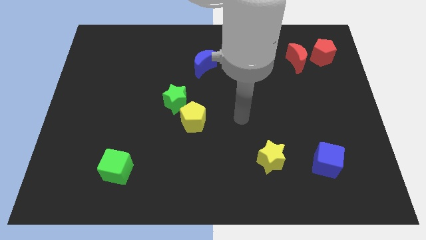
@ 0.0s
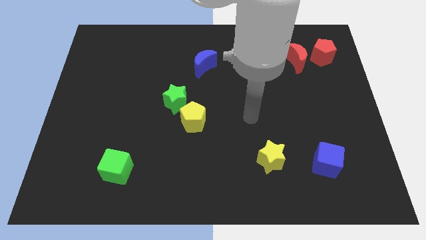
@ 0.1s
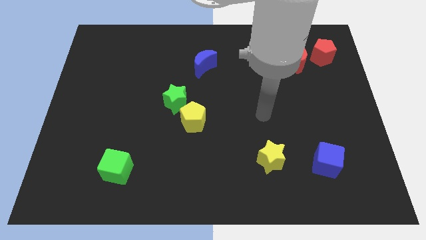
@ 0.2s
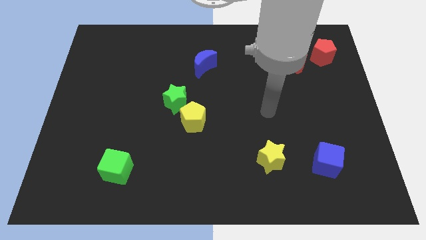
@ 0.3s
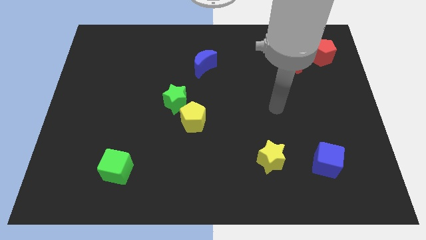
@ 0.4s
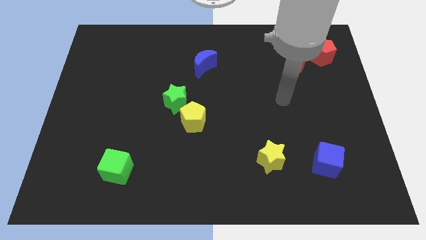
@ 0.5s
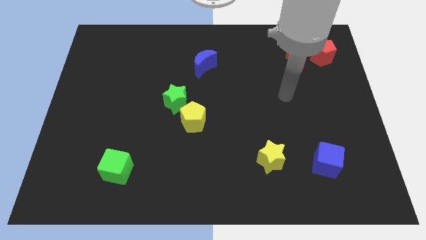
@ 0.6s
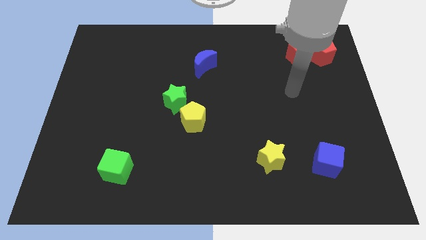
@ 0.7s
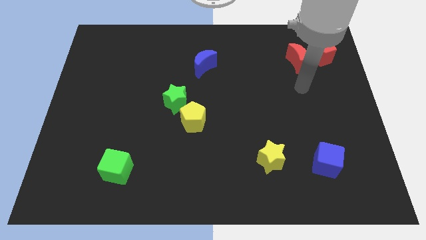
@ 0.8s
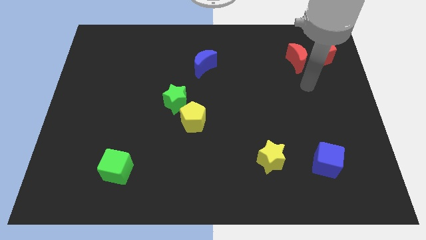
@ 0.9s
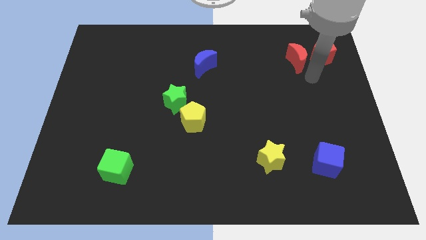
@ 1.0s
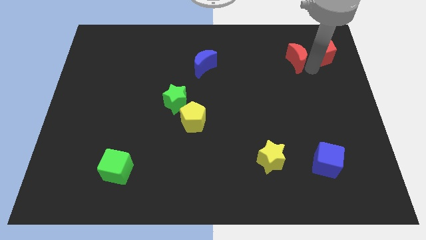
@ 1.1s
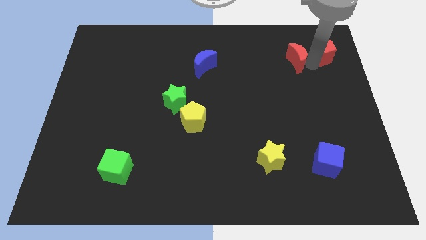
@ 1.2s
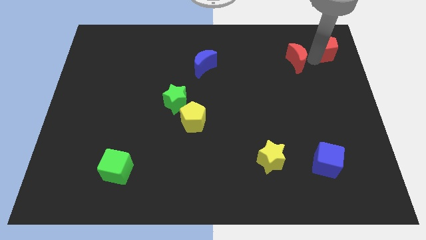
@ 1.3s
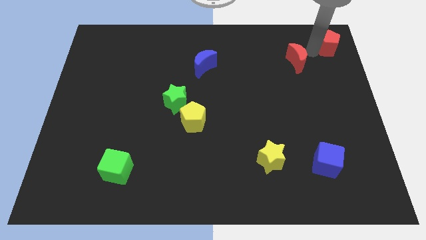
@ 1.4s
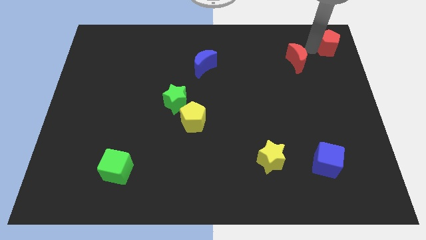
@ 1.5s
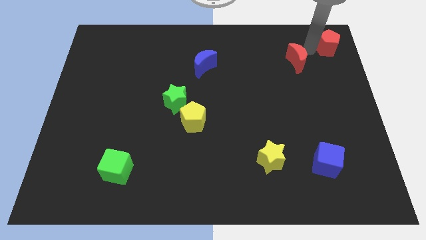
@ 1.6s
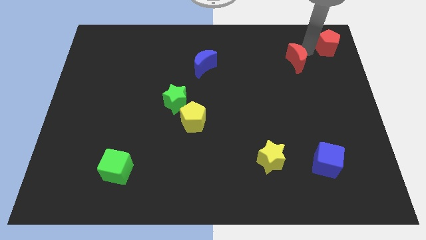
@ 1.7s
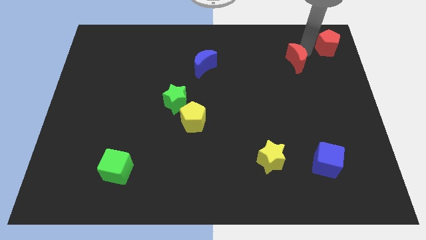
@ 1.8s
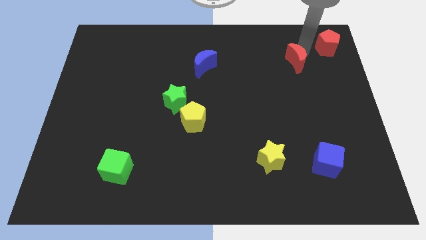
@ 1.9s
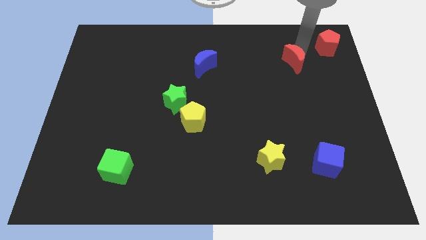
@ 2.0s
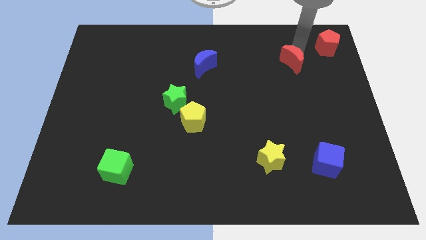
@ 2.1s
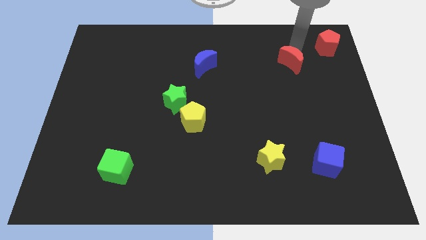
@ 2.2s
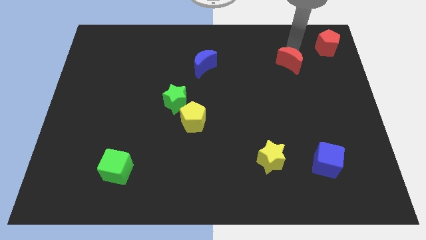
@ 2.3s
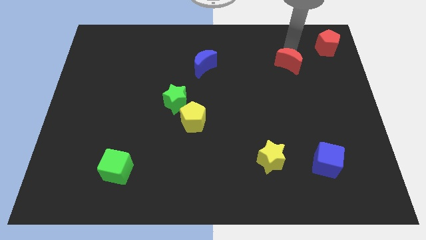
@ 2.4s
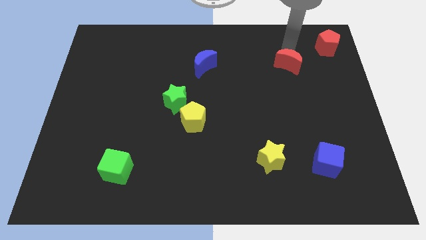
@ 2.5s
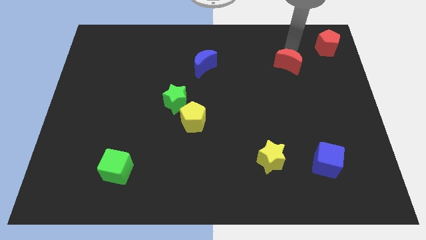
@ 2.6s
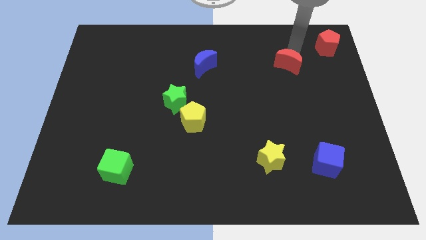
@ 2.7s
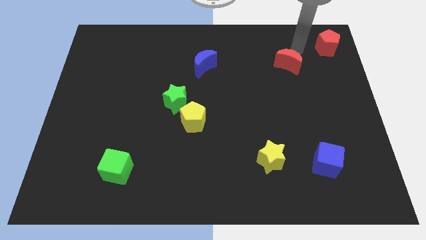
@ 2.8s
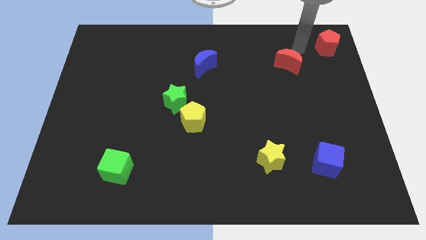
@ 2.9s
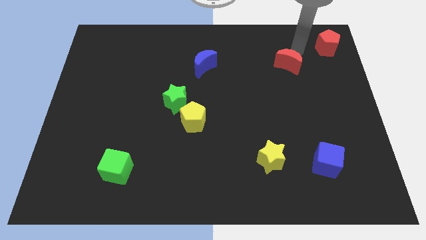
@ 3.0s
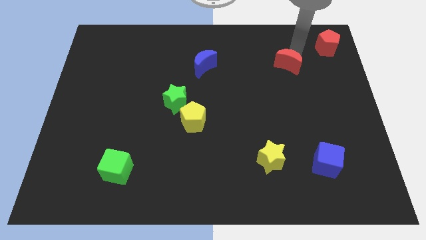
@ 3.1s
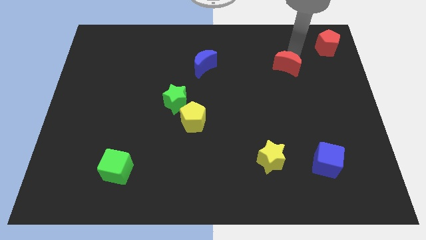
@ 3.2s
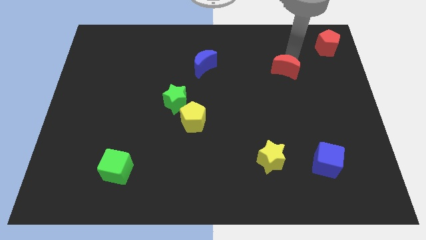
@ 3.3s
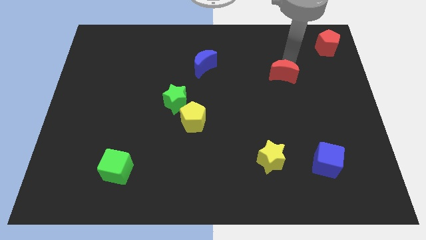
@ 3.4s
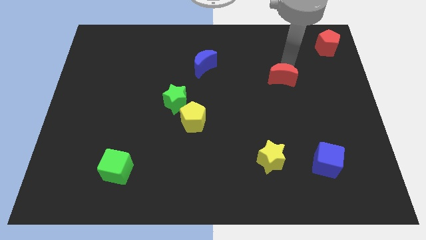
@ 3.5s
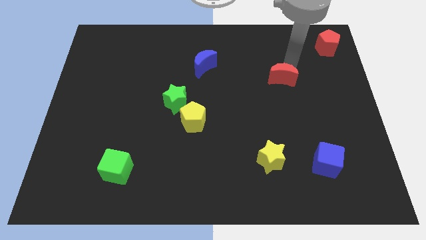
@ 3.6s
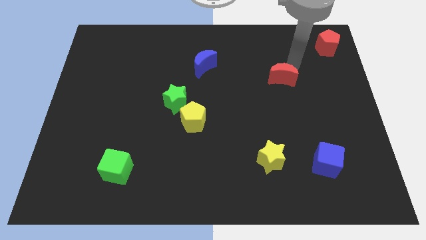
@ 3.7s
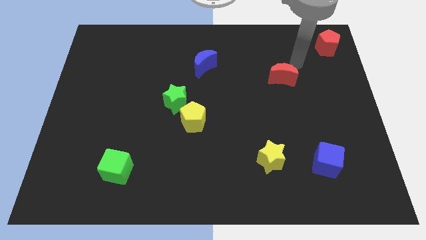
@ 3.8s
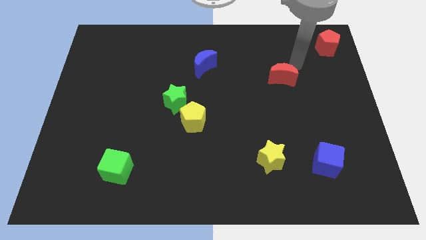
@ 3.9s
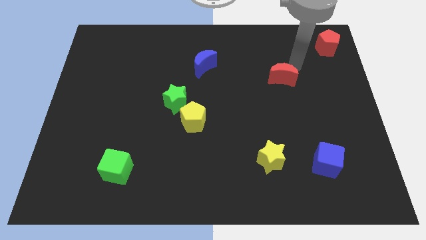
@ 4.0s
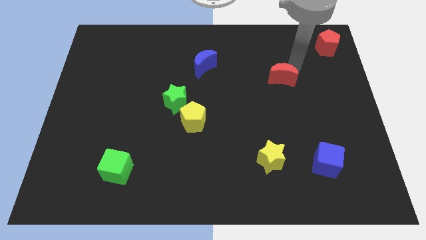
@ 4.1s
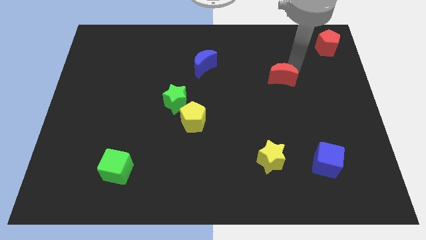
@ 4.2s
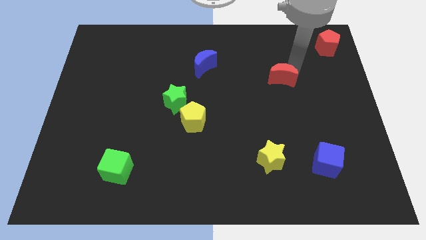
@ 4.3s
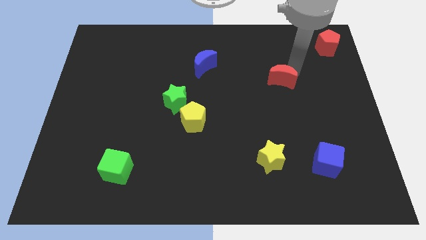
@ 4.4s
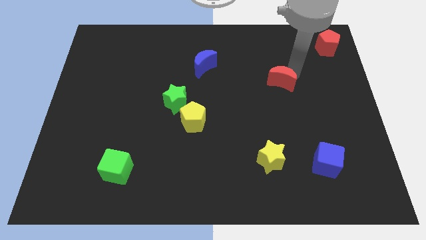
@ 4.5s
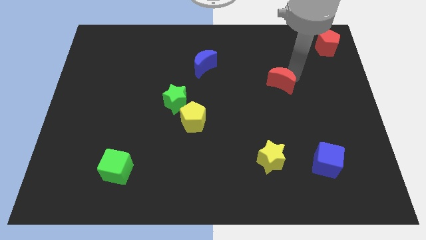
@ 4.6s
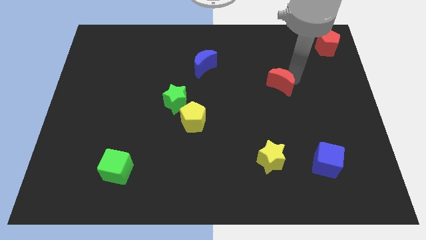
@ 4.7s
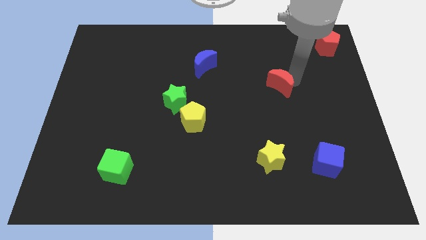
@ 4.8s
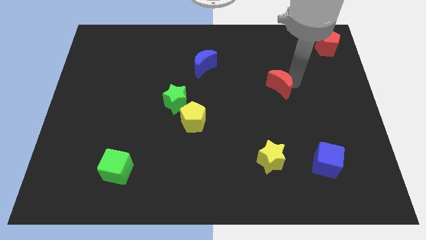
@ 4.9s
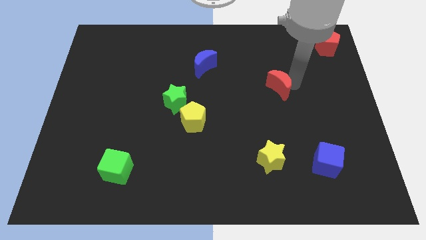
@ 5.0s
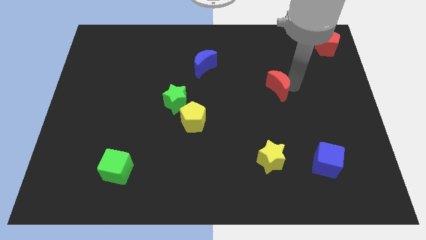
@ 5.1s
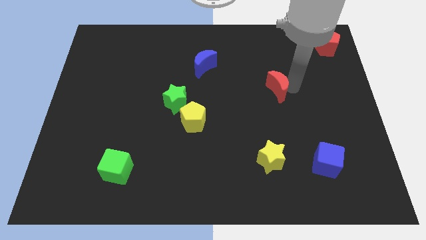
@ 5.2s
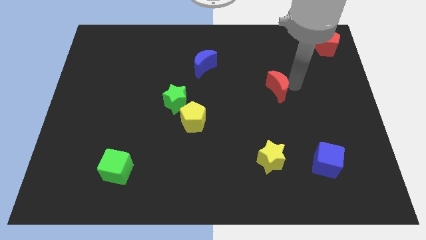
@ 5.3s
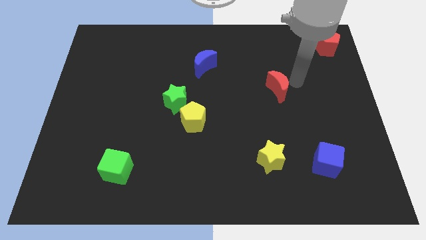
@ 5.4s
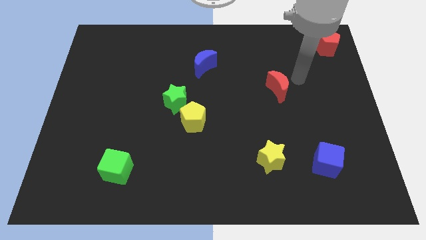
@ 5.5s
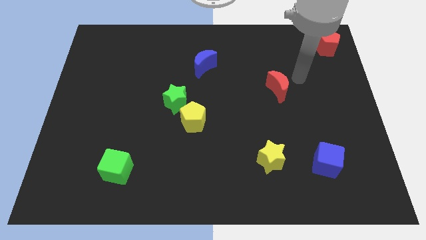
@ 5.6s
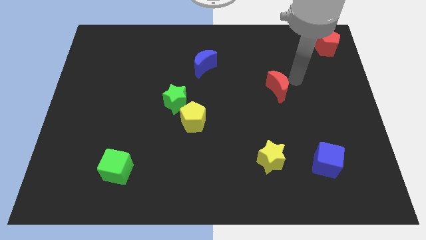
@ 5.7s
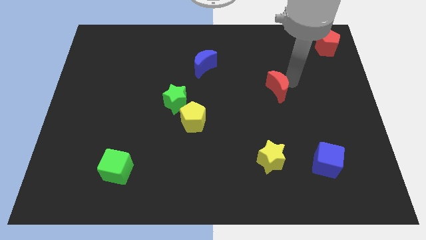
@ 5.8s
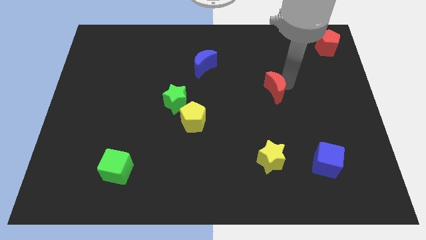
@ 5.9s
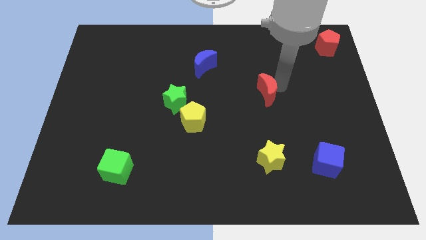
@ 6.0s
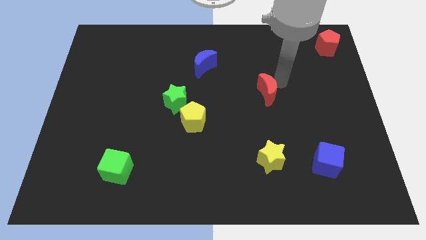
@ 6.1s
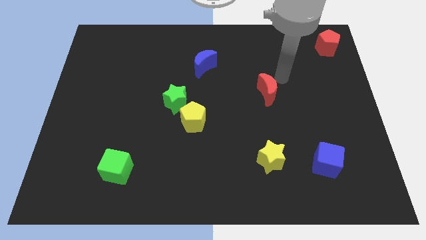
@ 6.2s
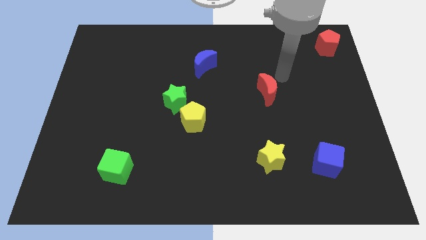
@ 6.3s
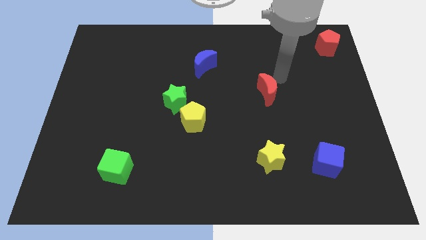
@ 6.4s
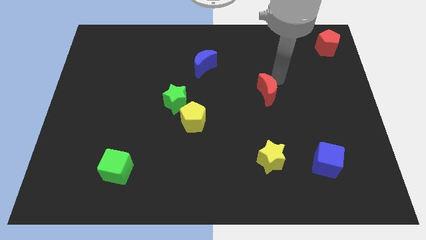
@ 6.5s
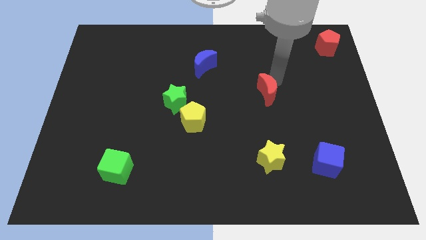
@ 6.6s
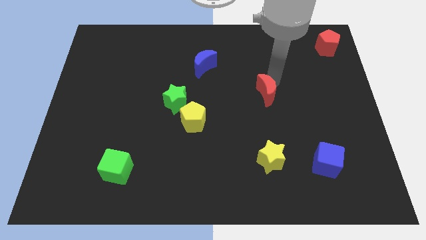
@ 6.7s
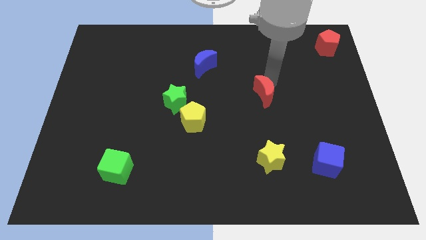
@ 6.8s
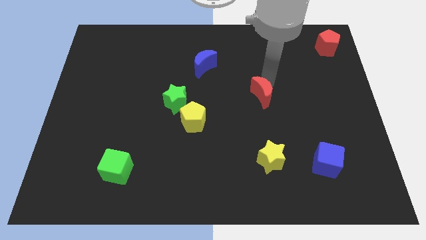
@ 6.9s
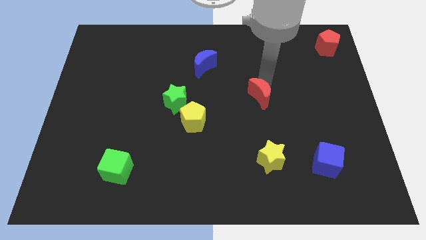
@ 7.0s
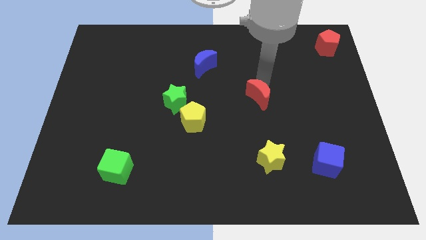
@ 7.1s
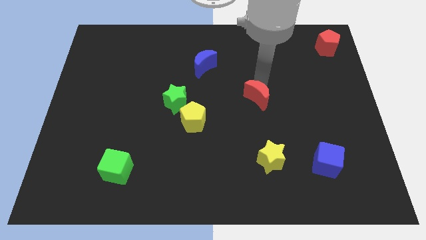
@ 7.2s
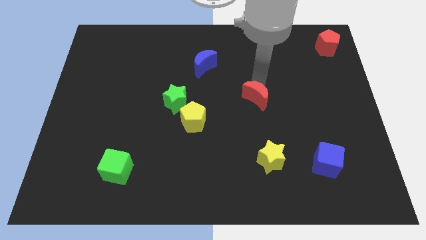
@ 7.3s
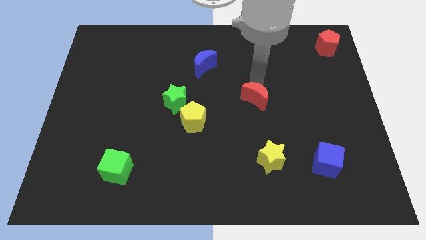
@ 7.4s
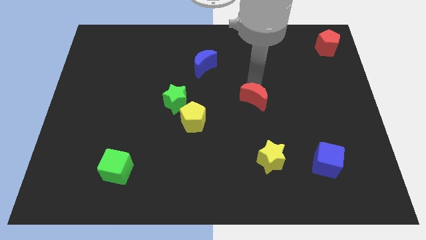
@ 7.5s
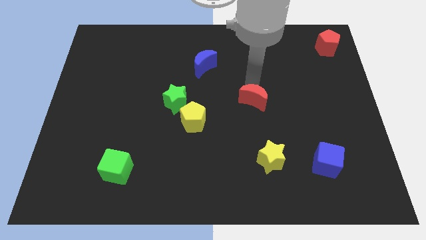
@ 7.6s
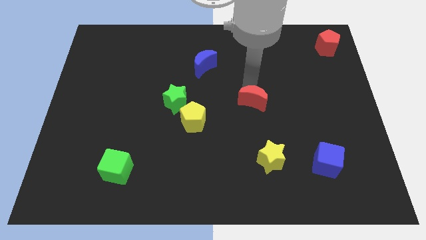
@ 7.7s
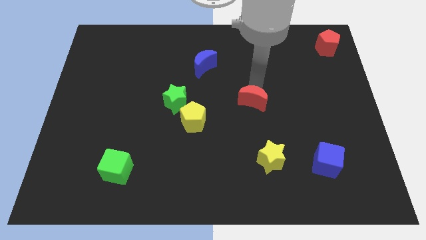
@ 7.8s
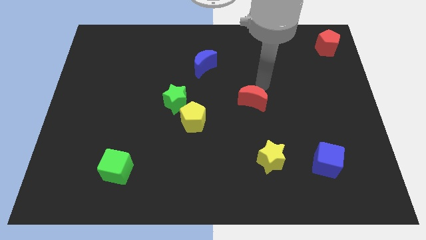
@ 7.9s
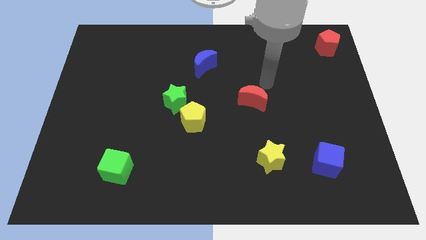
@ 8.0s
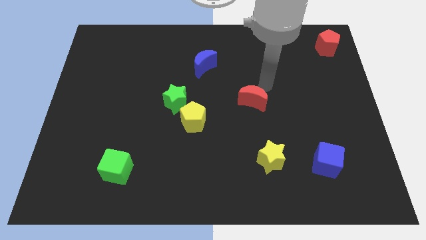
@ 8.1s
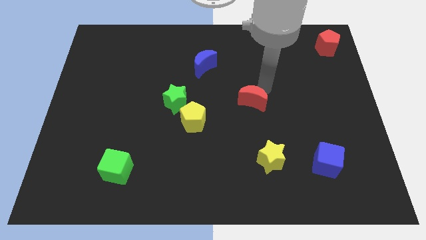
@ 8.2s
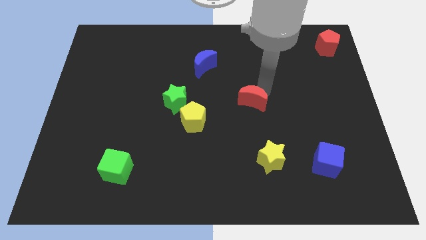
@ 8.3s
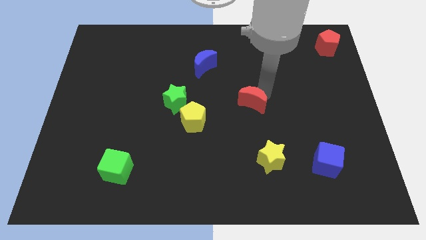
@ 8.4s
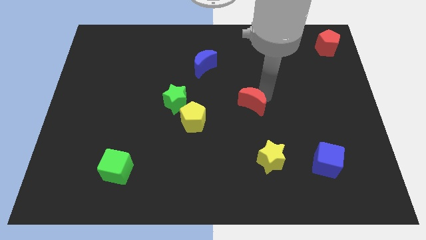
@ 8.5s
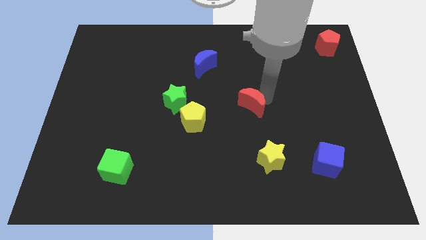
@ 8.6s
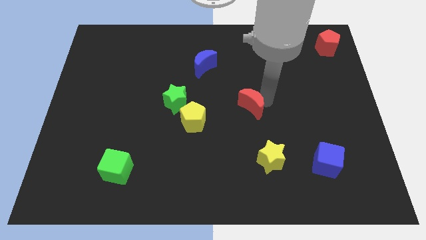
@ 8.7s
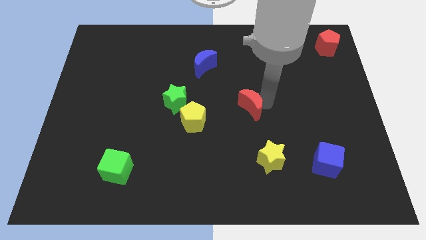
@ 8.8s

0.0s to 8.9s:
move the red moon down and then to the left
